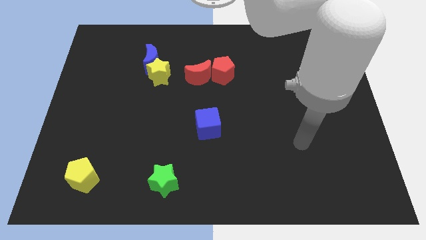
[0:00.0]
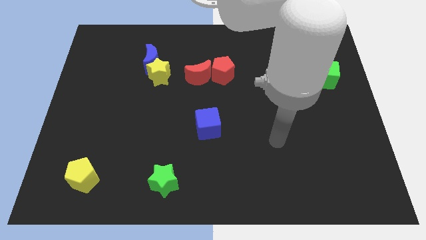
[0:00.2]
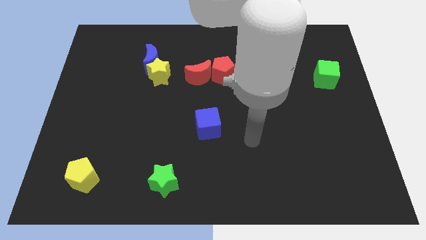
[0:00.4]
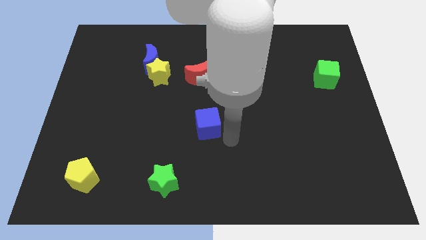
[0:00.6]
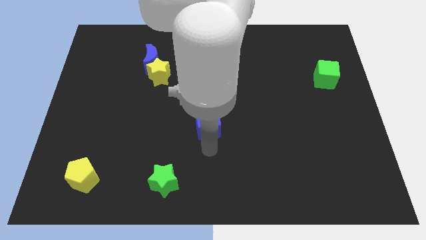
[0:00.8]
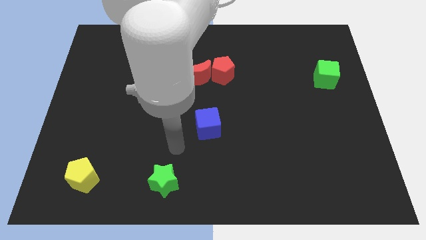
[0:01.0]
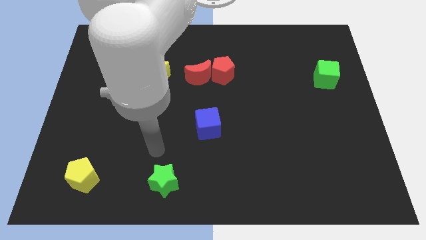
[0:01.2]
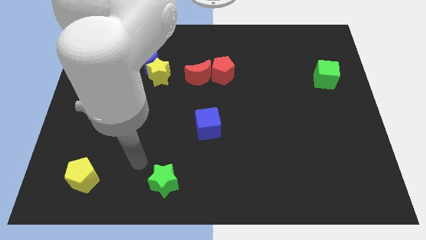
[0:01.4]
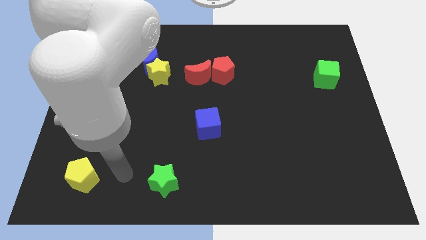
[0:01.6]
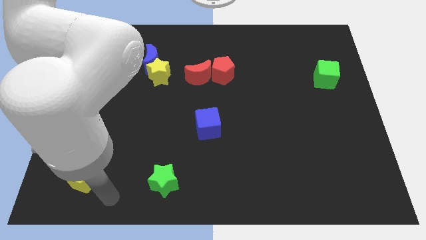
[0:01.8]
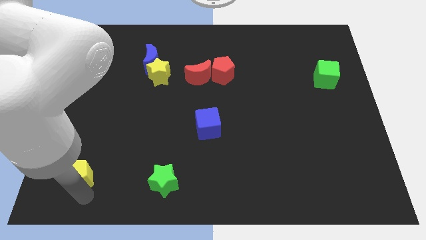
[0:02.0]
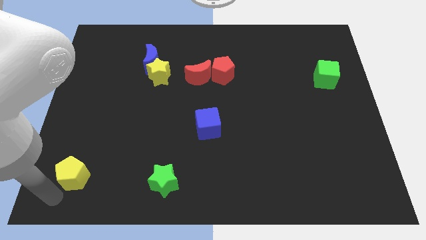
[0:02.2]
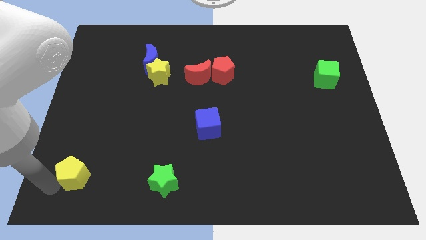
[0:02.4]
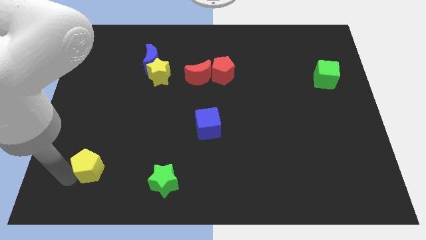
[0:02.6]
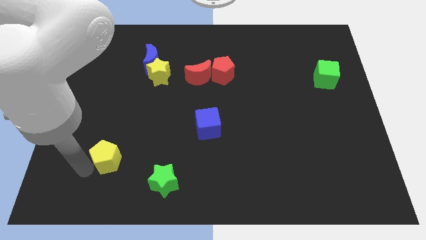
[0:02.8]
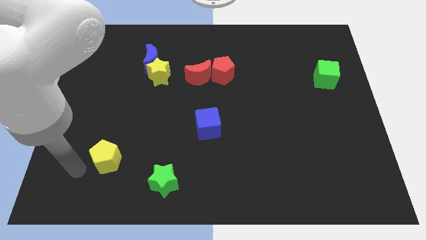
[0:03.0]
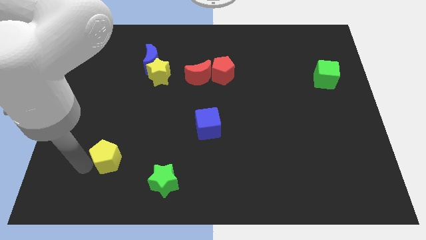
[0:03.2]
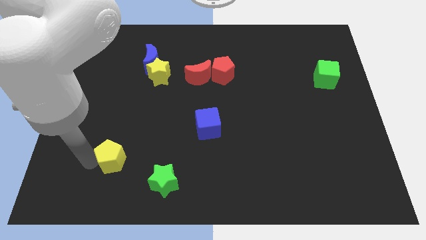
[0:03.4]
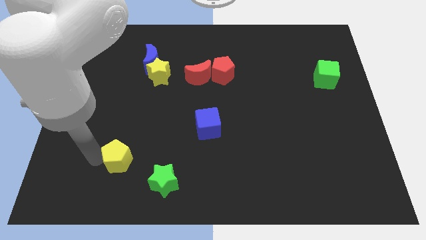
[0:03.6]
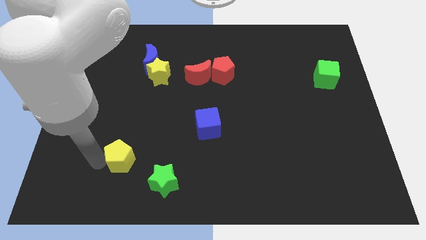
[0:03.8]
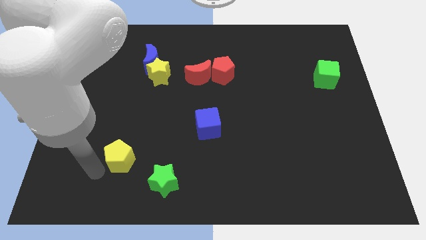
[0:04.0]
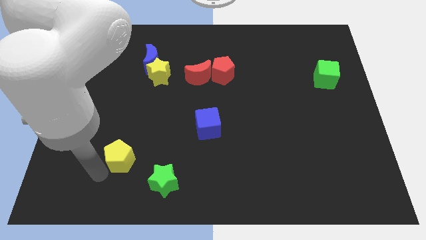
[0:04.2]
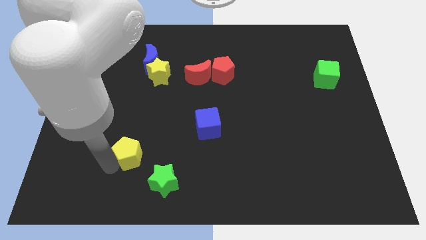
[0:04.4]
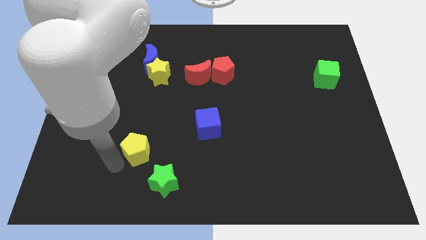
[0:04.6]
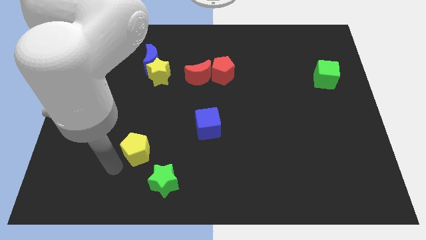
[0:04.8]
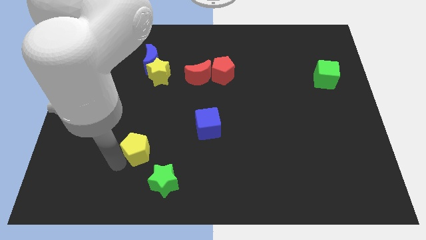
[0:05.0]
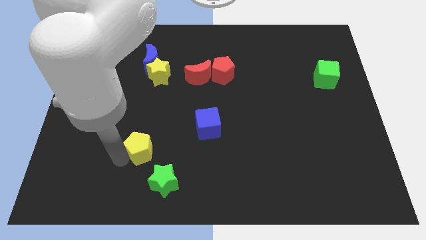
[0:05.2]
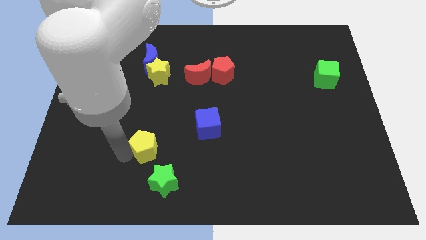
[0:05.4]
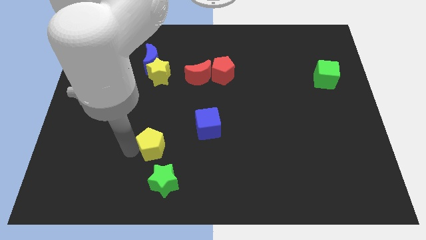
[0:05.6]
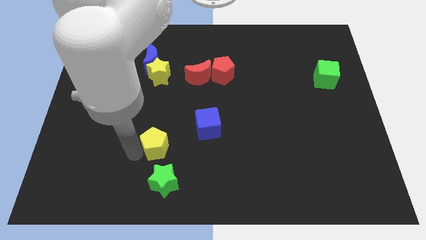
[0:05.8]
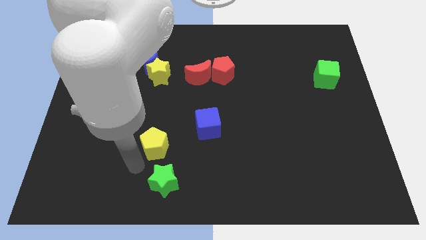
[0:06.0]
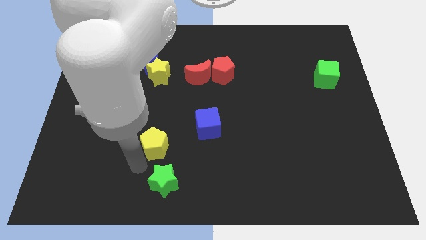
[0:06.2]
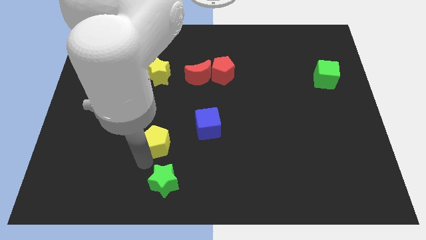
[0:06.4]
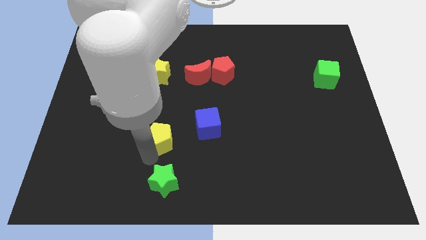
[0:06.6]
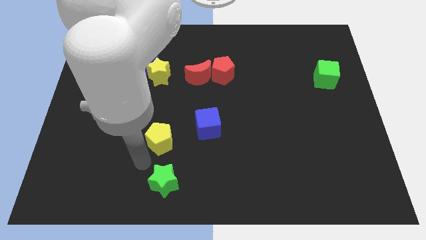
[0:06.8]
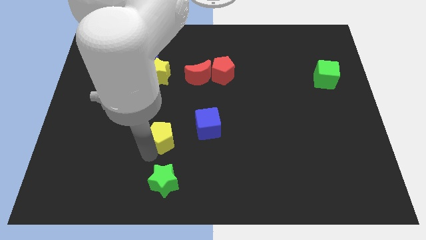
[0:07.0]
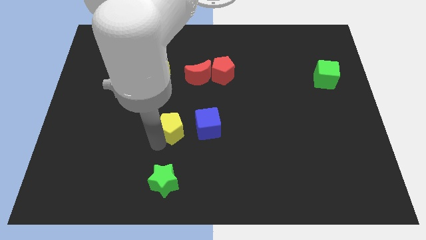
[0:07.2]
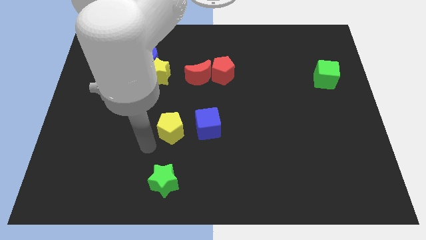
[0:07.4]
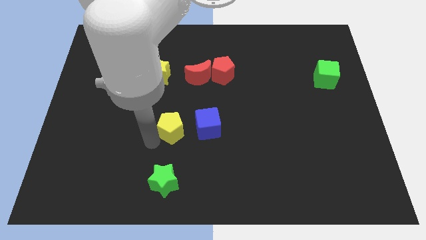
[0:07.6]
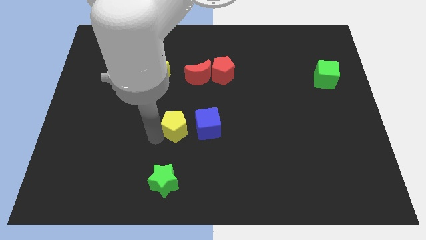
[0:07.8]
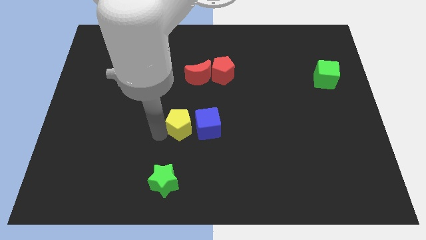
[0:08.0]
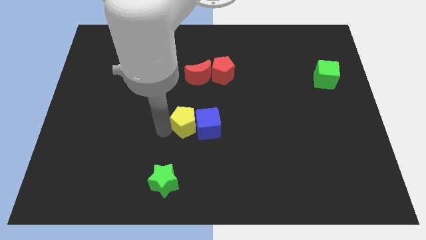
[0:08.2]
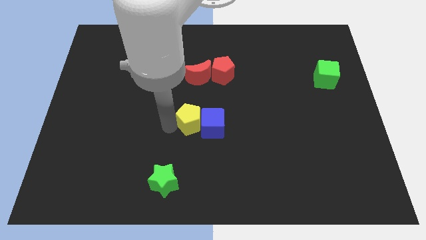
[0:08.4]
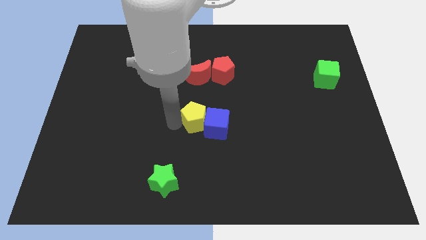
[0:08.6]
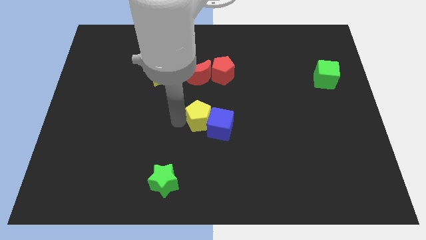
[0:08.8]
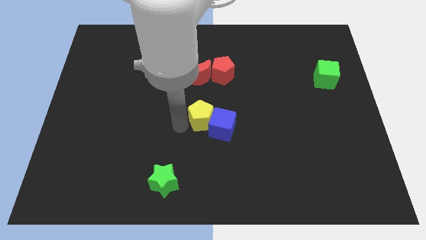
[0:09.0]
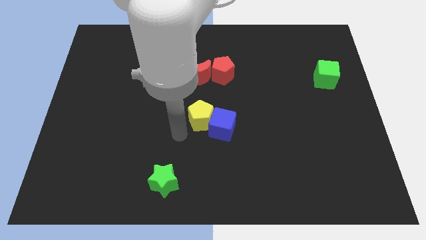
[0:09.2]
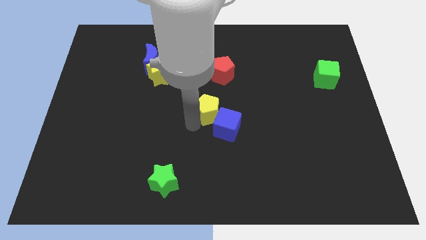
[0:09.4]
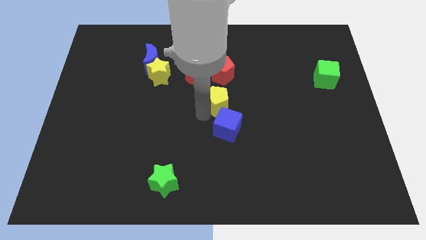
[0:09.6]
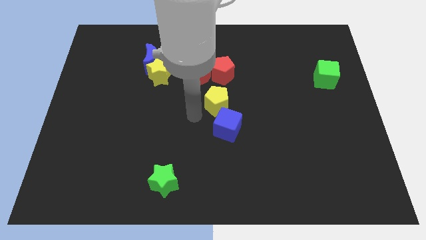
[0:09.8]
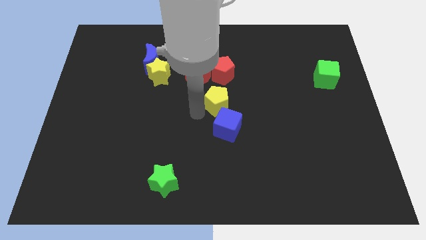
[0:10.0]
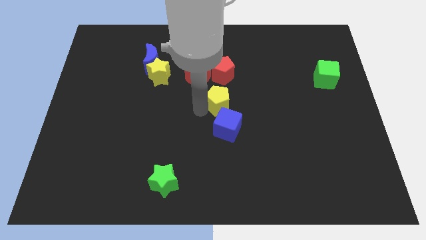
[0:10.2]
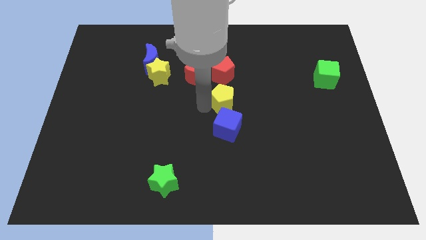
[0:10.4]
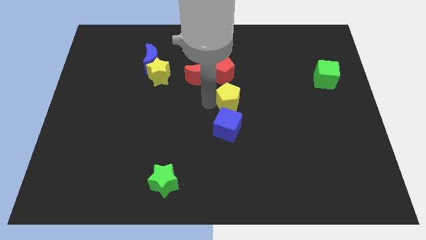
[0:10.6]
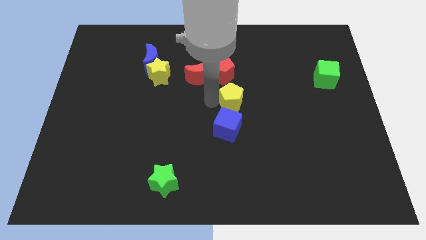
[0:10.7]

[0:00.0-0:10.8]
push the yellow pentagon to the bottom right side of the red pentagon

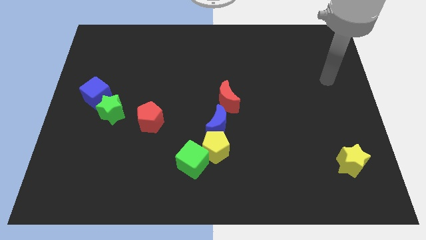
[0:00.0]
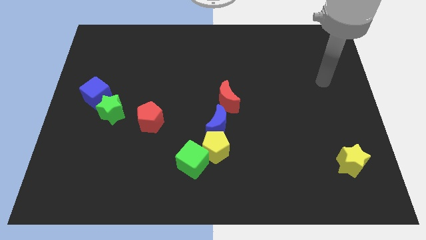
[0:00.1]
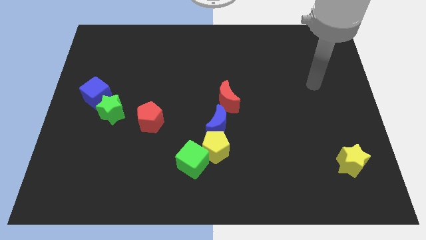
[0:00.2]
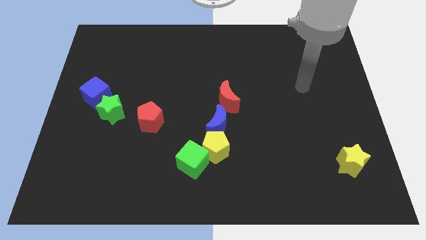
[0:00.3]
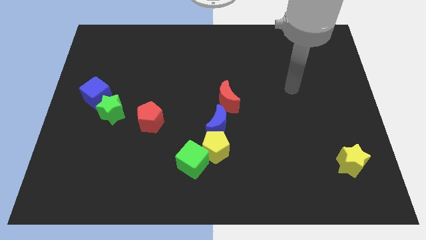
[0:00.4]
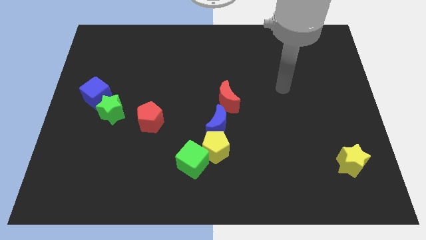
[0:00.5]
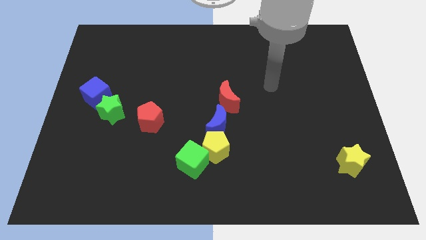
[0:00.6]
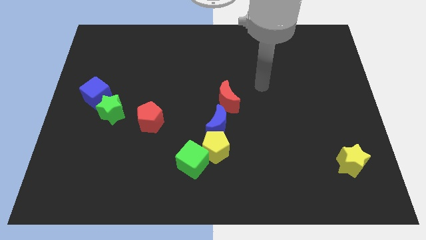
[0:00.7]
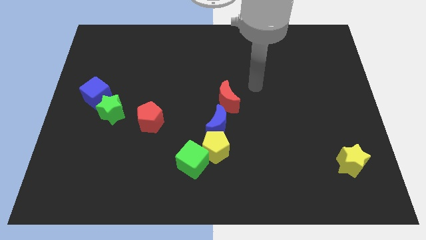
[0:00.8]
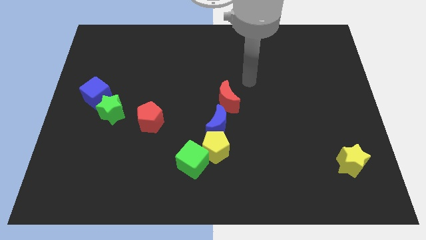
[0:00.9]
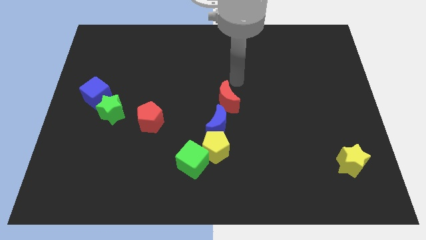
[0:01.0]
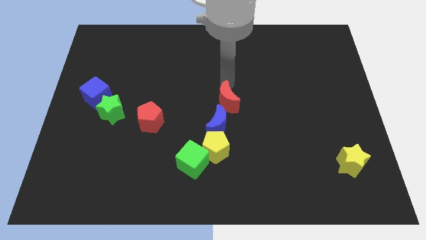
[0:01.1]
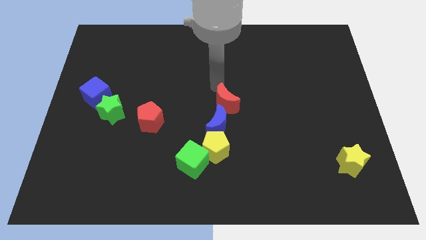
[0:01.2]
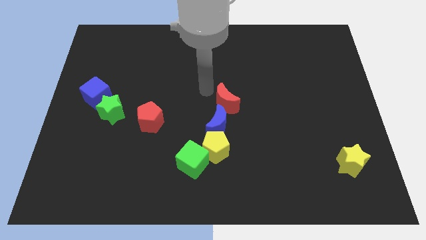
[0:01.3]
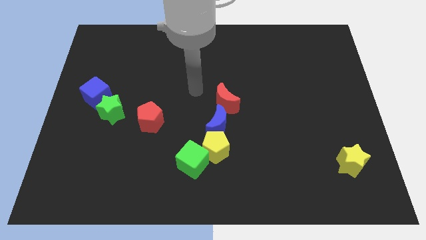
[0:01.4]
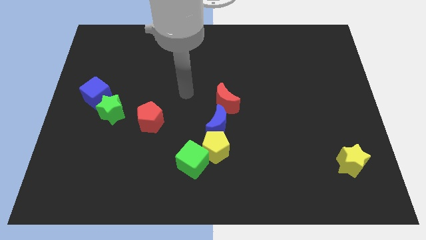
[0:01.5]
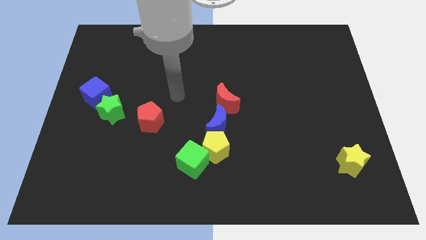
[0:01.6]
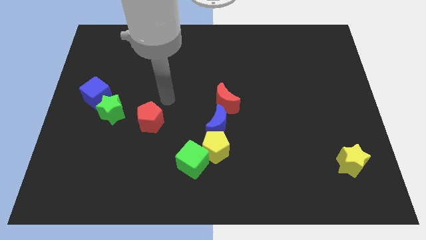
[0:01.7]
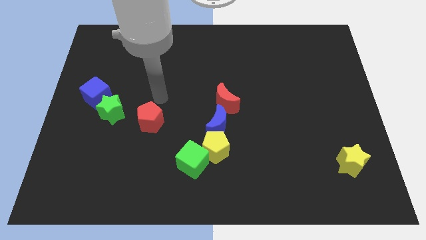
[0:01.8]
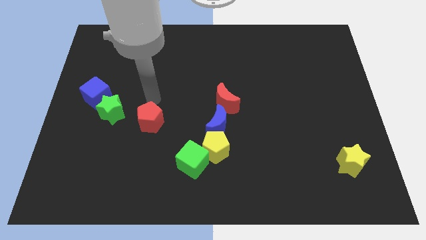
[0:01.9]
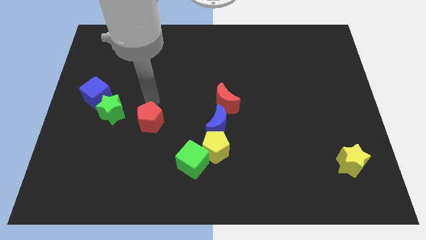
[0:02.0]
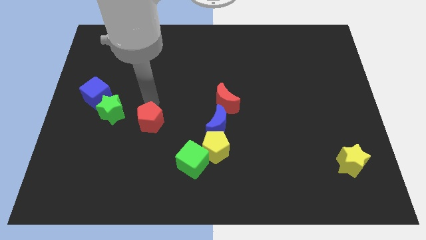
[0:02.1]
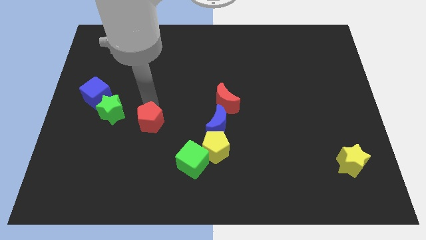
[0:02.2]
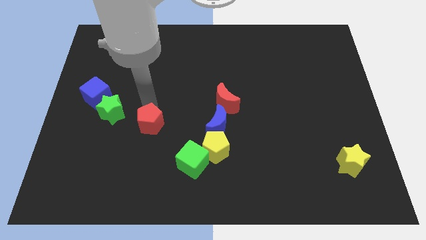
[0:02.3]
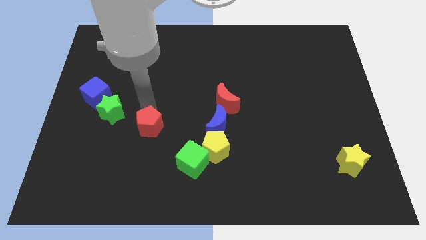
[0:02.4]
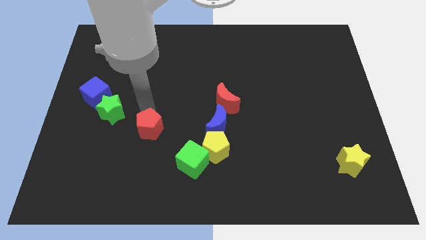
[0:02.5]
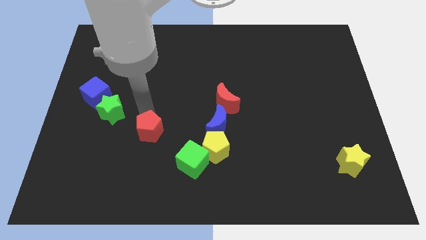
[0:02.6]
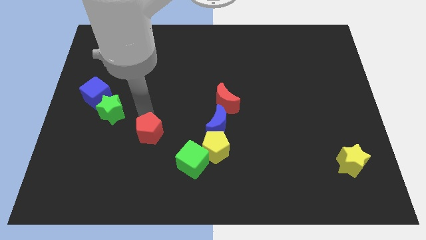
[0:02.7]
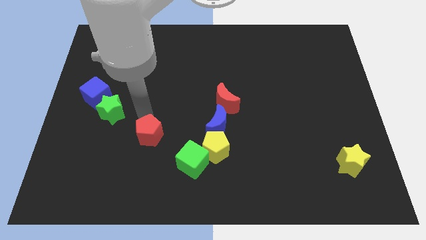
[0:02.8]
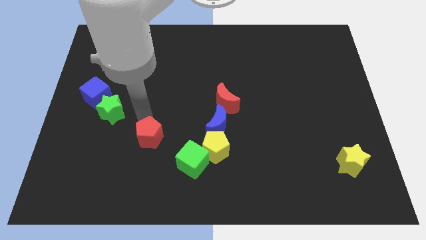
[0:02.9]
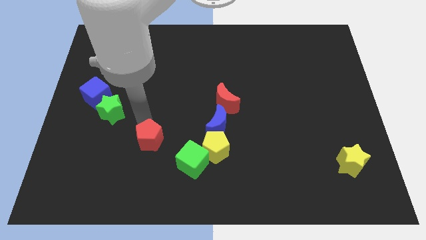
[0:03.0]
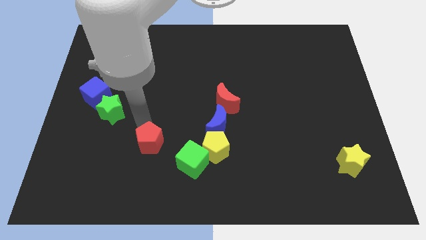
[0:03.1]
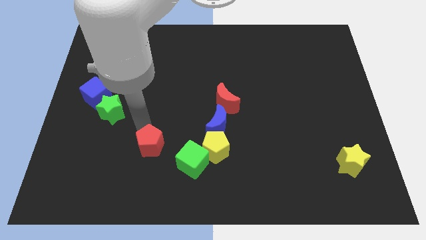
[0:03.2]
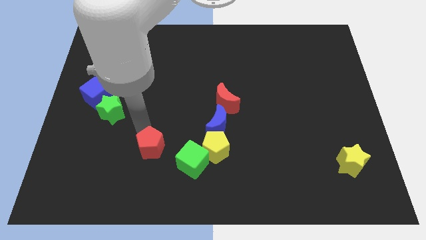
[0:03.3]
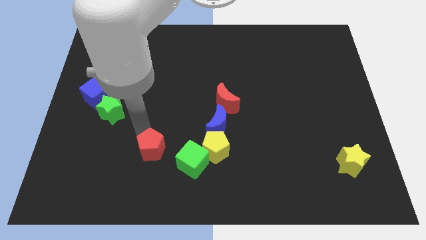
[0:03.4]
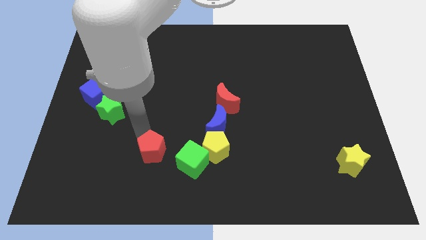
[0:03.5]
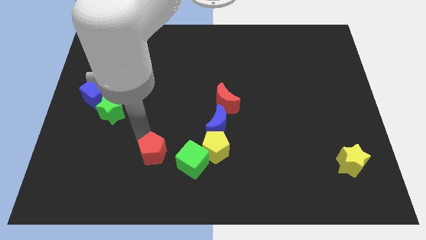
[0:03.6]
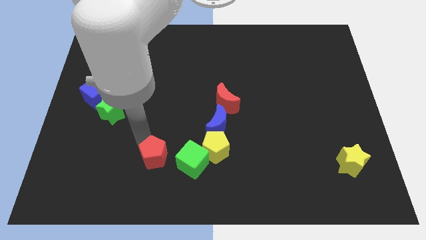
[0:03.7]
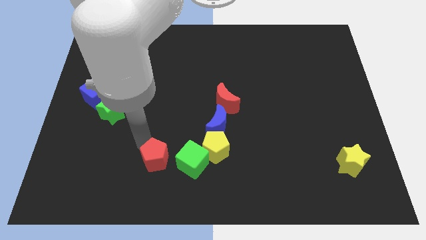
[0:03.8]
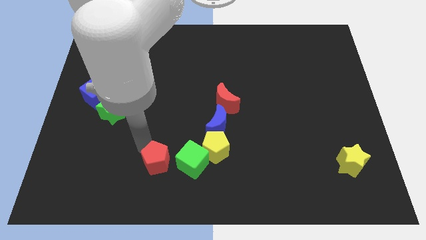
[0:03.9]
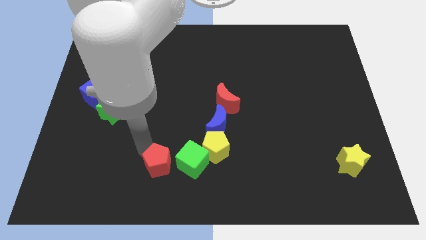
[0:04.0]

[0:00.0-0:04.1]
put the red pentagon to the bottom left of the green cube
